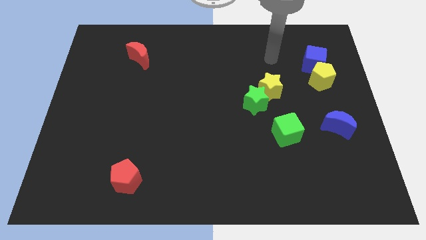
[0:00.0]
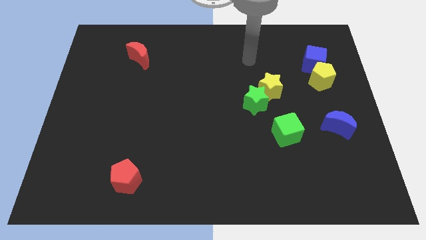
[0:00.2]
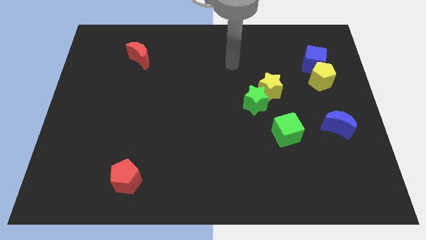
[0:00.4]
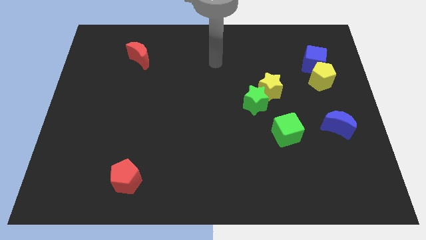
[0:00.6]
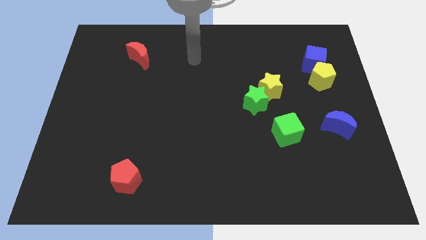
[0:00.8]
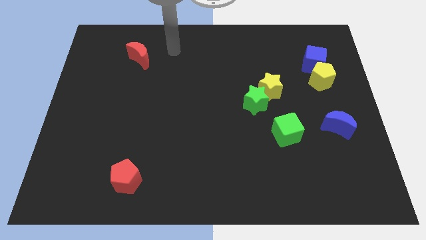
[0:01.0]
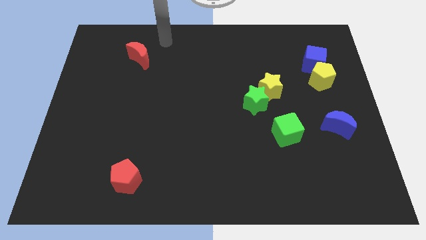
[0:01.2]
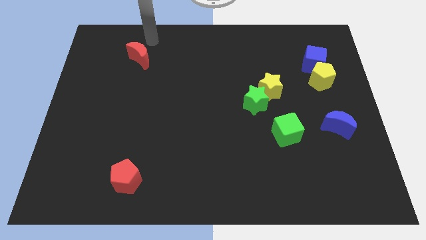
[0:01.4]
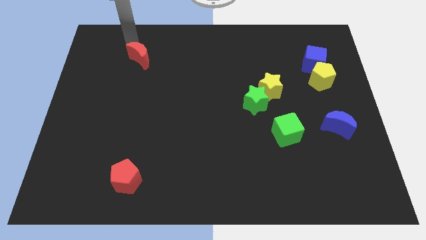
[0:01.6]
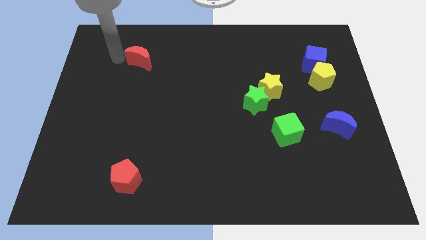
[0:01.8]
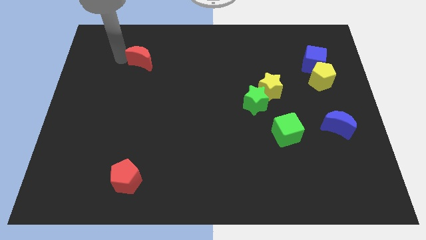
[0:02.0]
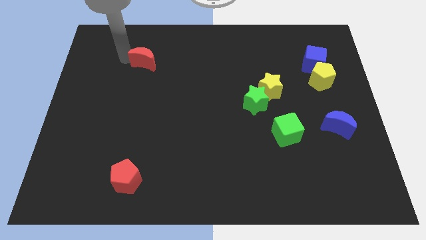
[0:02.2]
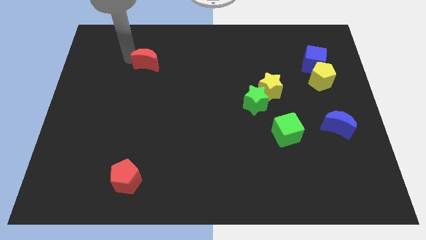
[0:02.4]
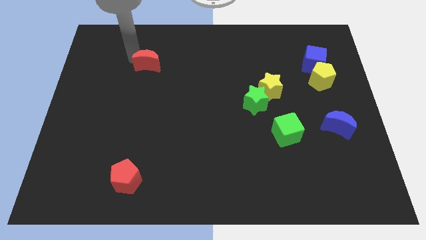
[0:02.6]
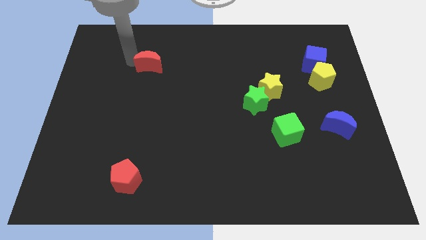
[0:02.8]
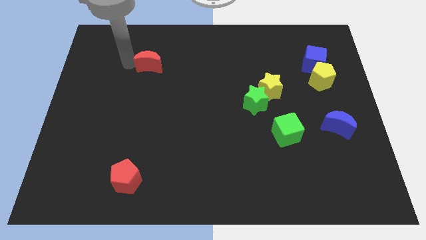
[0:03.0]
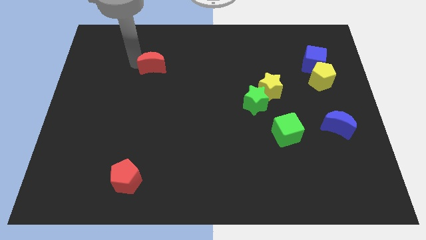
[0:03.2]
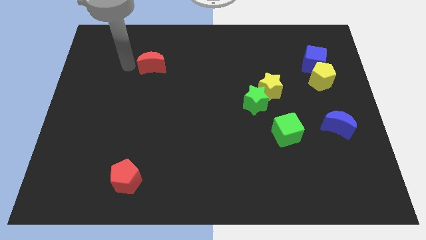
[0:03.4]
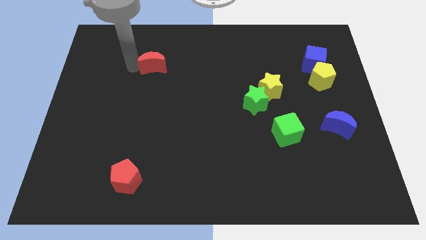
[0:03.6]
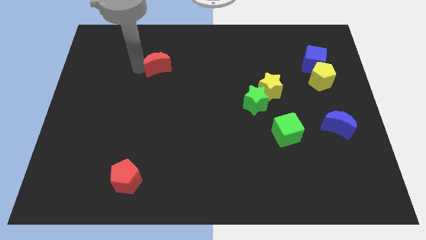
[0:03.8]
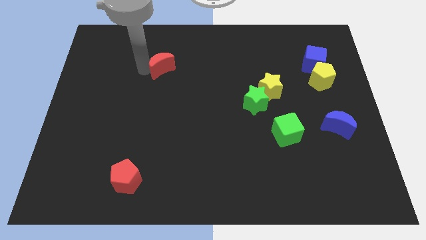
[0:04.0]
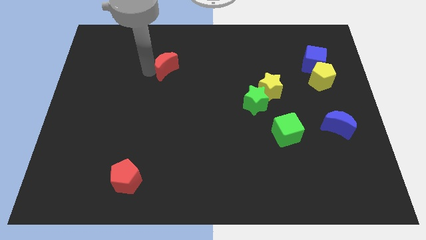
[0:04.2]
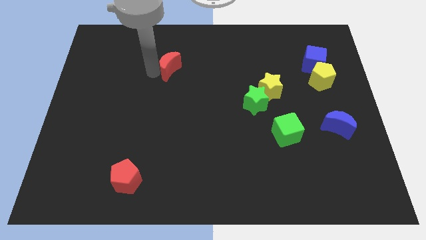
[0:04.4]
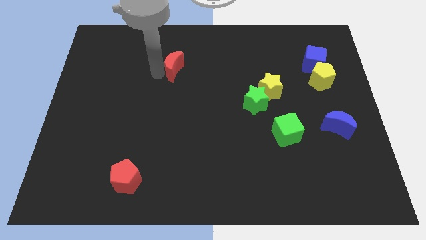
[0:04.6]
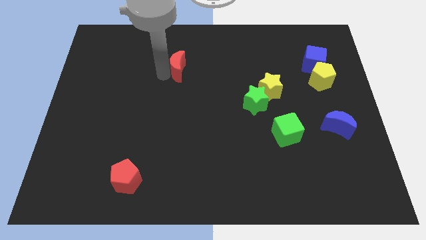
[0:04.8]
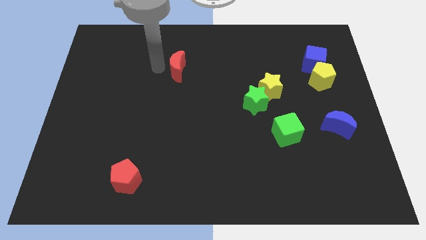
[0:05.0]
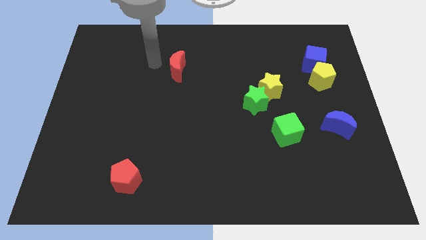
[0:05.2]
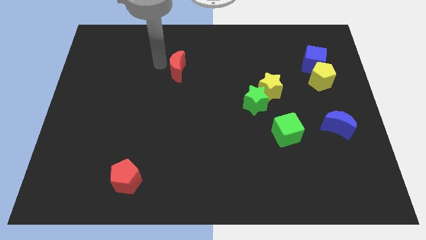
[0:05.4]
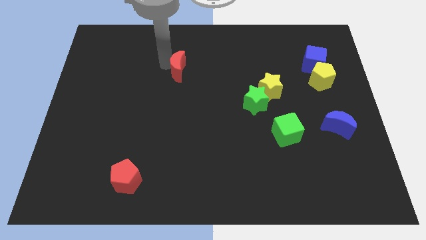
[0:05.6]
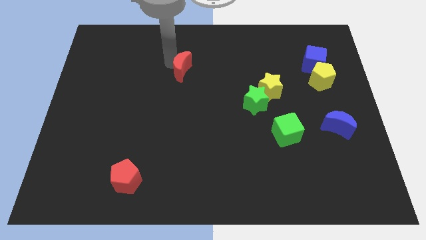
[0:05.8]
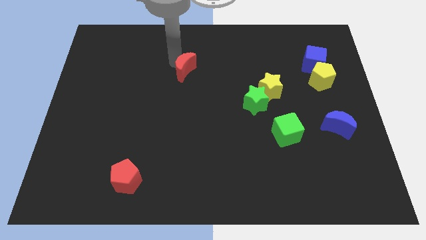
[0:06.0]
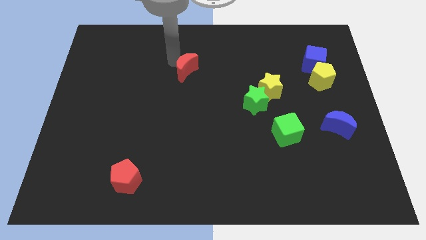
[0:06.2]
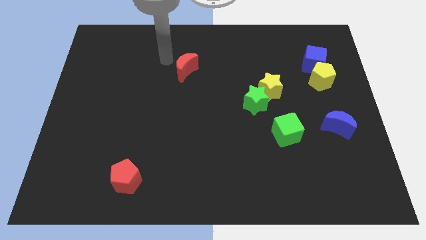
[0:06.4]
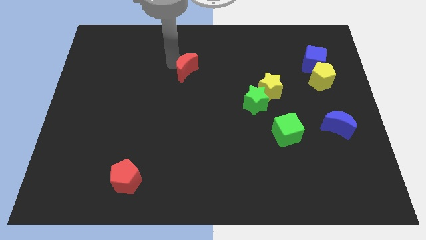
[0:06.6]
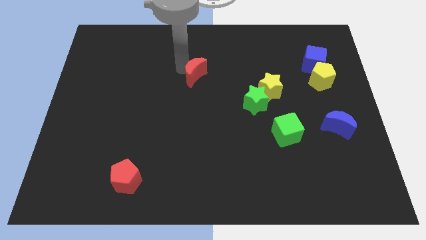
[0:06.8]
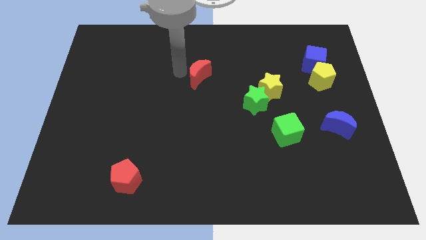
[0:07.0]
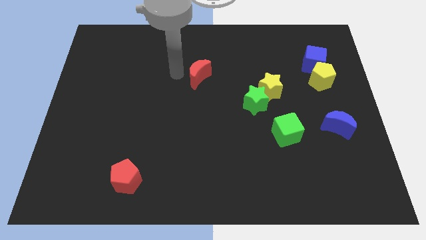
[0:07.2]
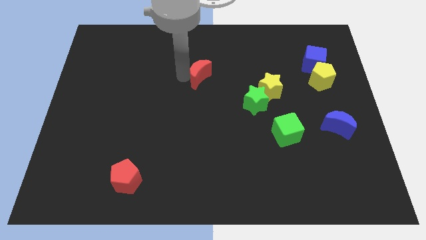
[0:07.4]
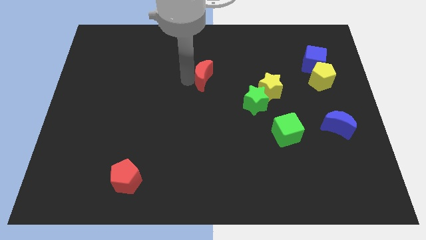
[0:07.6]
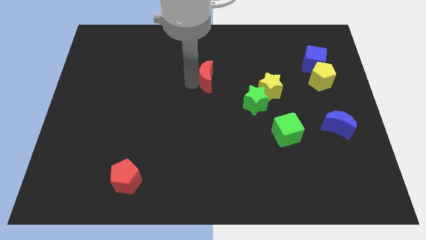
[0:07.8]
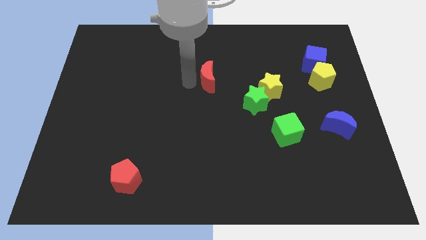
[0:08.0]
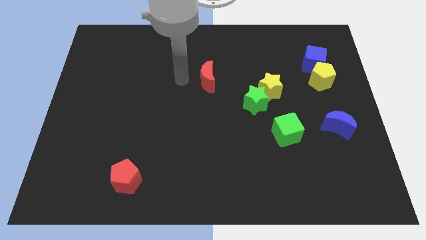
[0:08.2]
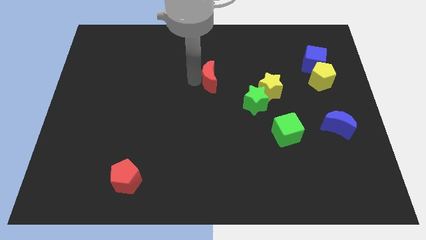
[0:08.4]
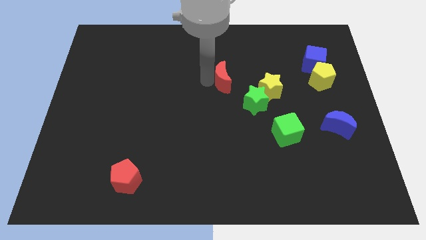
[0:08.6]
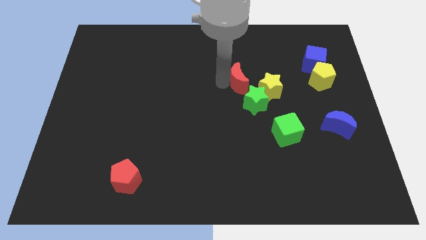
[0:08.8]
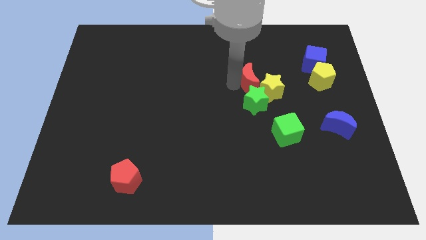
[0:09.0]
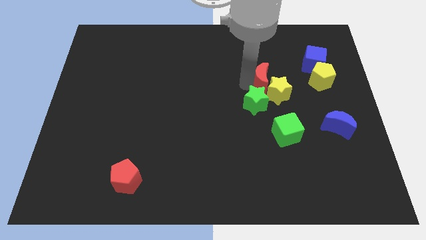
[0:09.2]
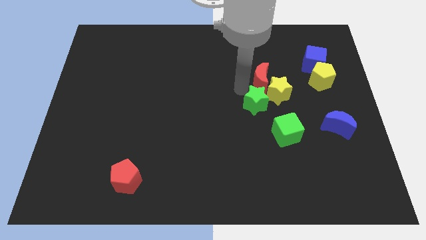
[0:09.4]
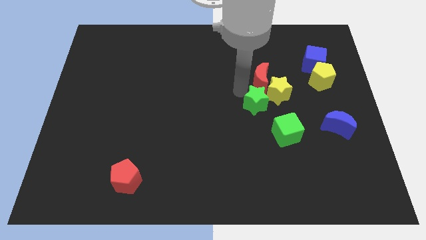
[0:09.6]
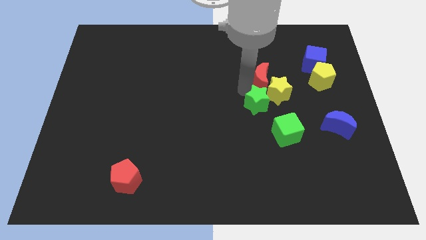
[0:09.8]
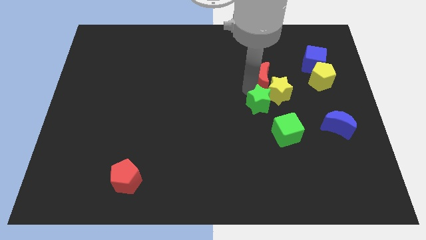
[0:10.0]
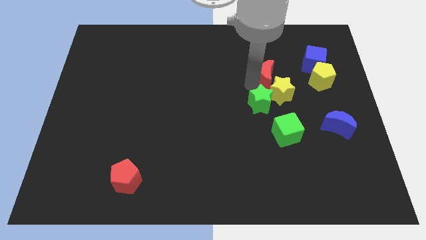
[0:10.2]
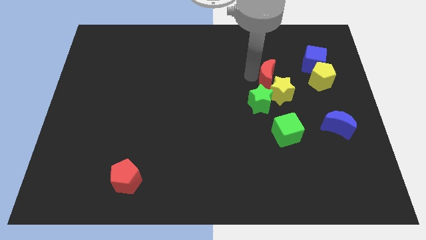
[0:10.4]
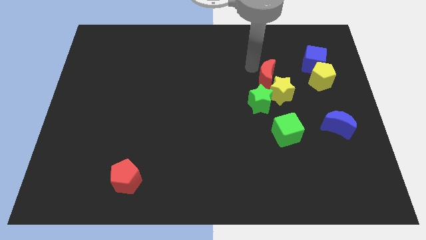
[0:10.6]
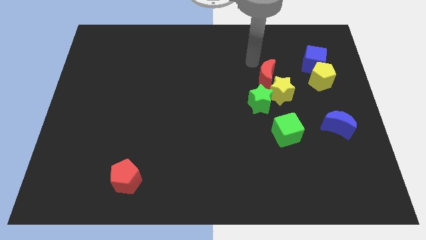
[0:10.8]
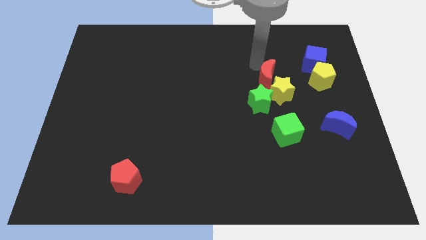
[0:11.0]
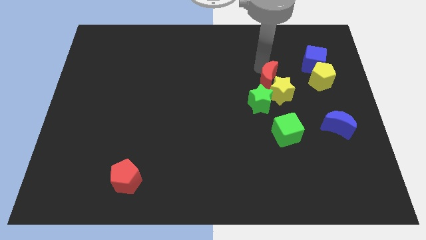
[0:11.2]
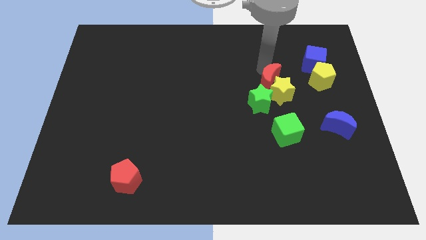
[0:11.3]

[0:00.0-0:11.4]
slide the red moon to the top of the green cube

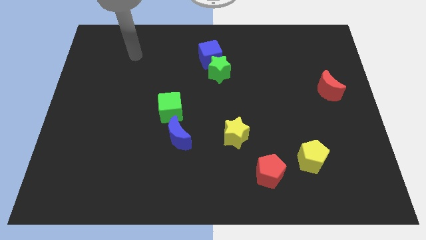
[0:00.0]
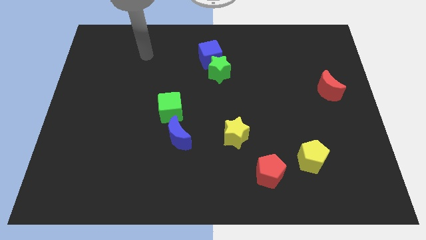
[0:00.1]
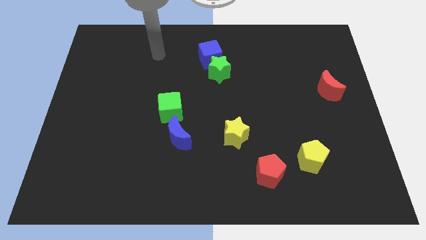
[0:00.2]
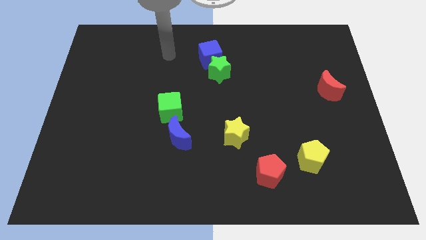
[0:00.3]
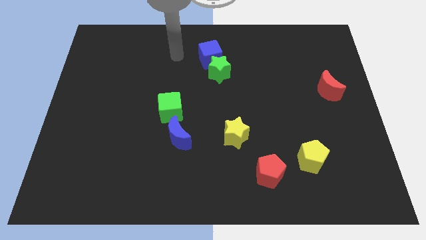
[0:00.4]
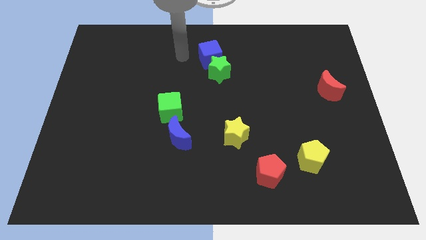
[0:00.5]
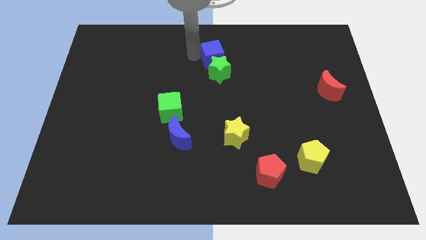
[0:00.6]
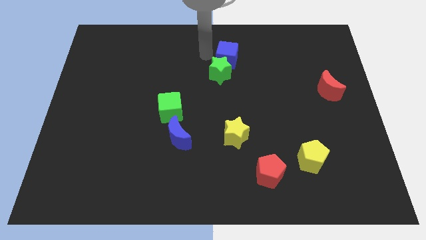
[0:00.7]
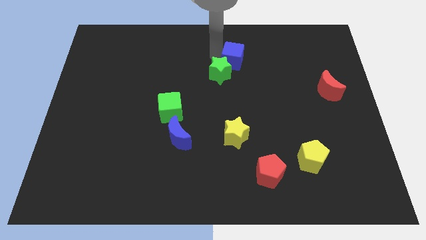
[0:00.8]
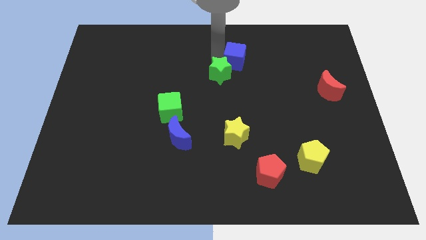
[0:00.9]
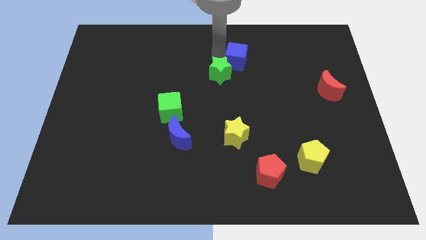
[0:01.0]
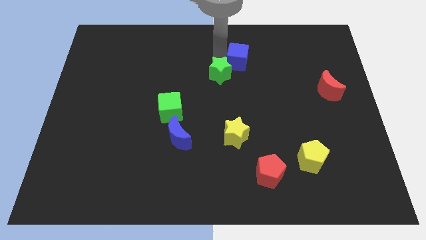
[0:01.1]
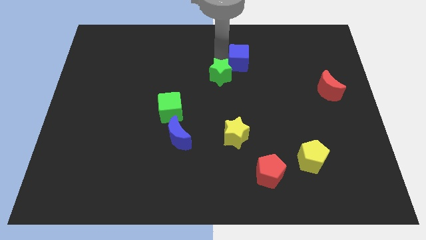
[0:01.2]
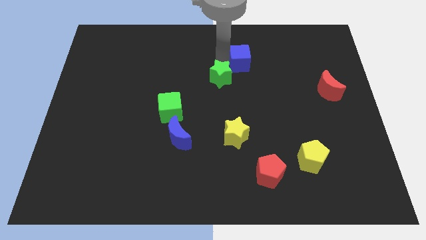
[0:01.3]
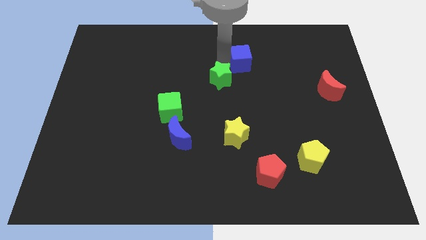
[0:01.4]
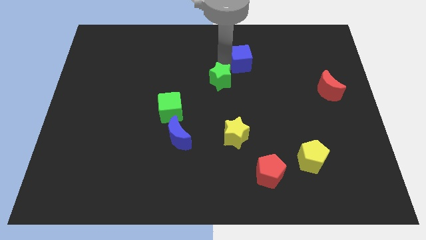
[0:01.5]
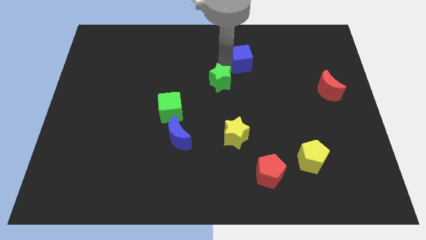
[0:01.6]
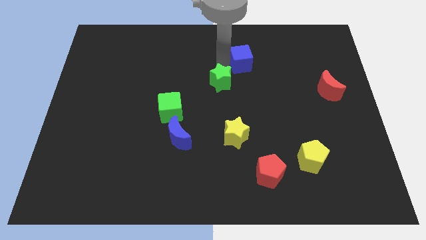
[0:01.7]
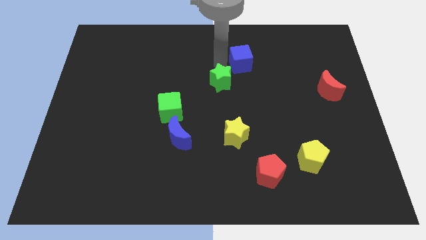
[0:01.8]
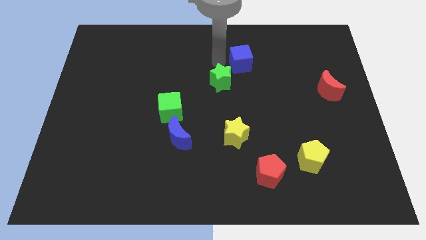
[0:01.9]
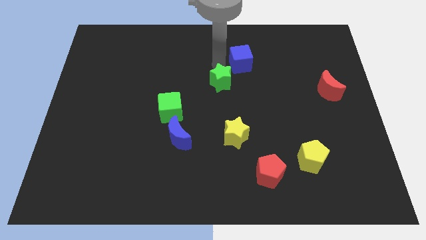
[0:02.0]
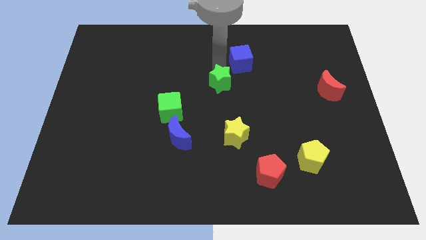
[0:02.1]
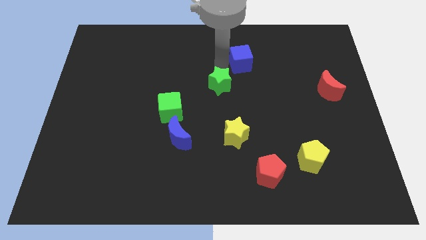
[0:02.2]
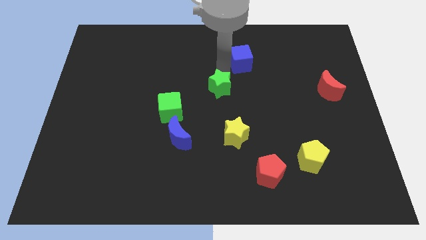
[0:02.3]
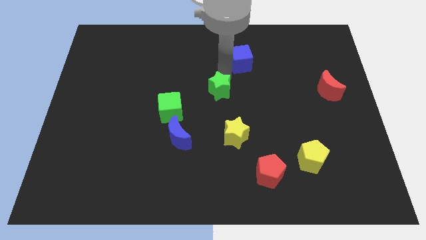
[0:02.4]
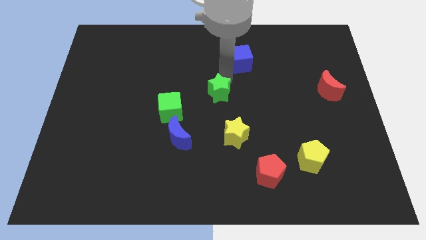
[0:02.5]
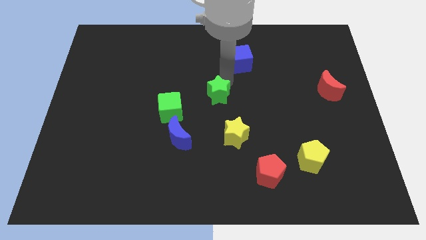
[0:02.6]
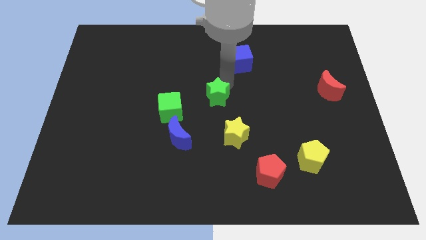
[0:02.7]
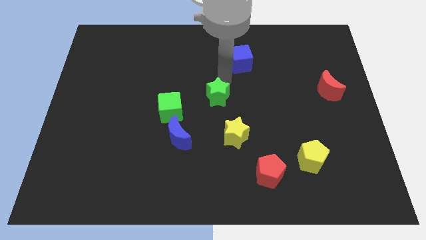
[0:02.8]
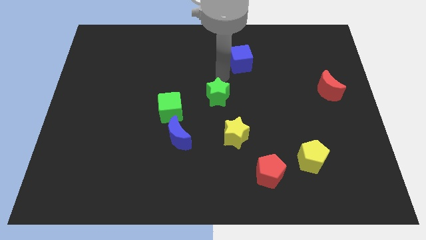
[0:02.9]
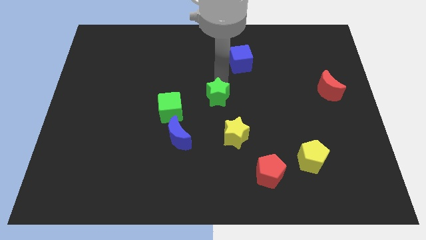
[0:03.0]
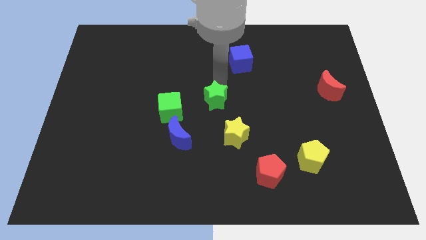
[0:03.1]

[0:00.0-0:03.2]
slide the green star to the top left of the yellow star
